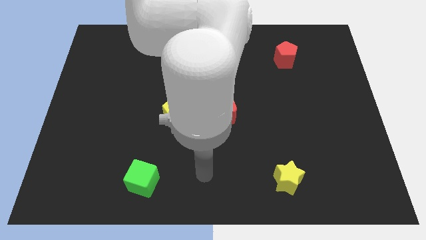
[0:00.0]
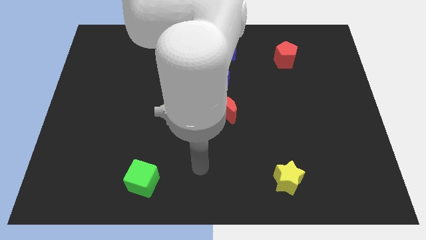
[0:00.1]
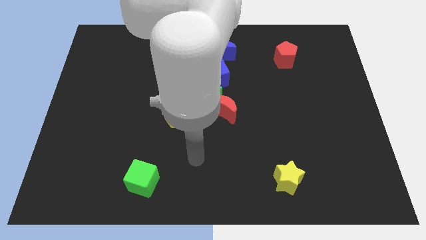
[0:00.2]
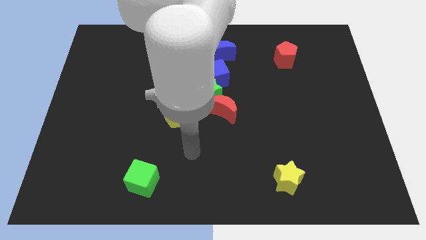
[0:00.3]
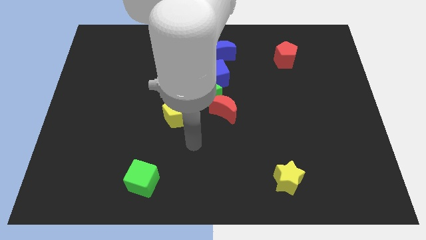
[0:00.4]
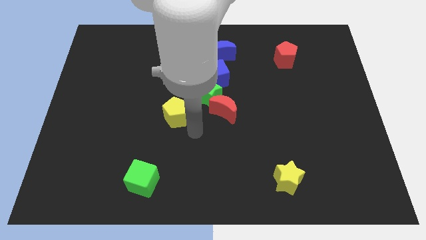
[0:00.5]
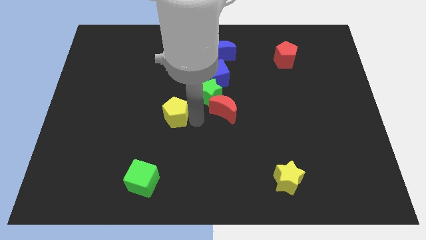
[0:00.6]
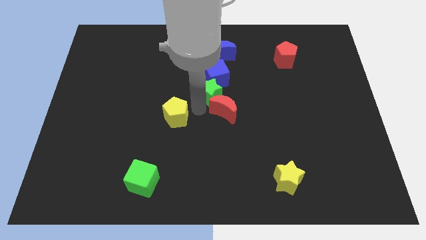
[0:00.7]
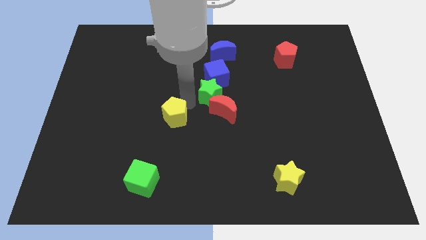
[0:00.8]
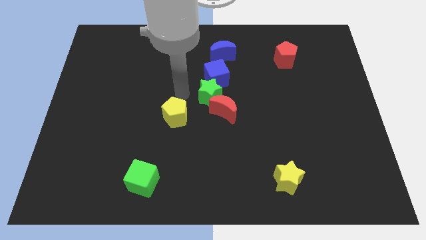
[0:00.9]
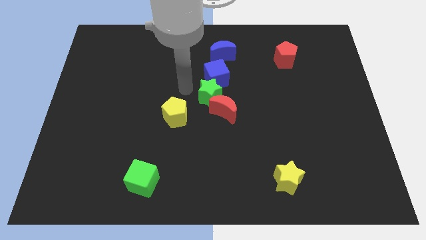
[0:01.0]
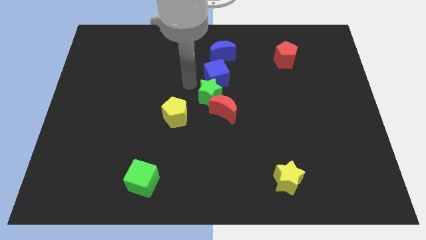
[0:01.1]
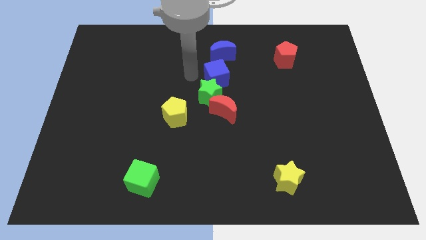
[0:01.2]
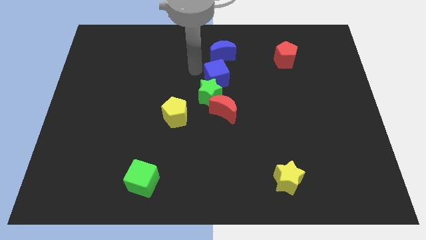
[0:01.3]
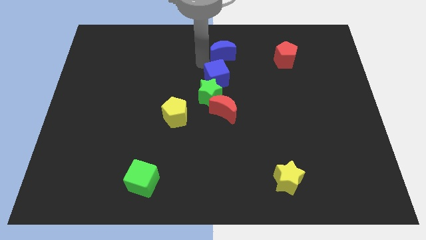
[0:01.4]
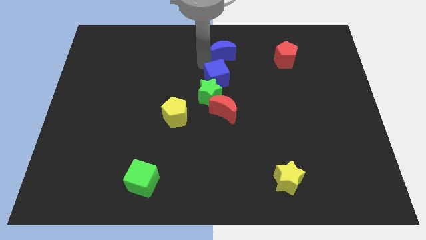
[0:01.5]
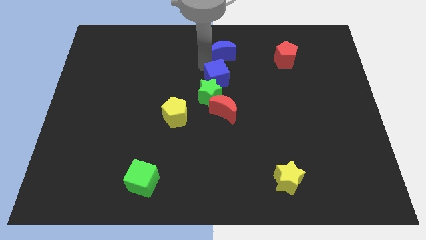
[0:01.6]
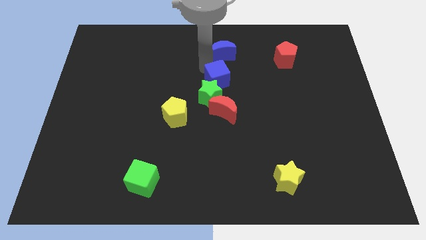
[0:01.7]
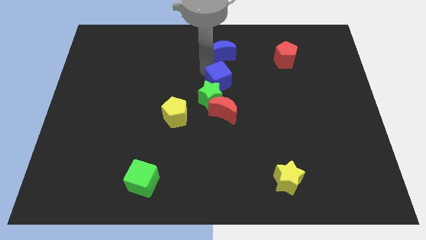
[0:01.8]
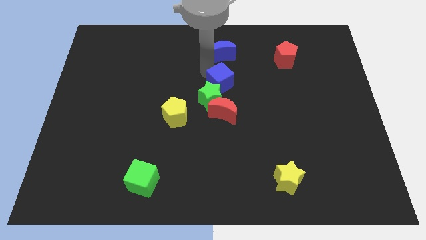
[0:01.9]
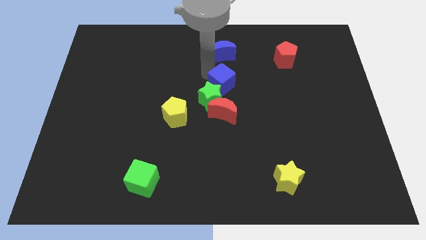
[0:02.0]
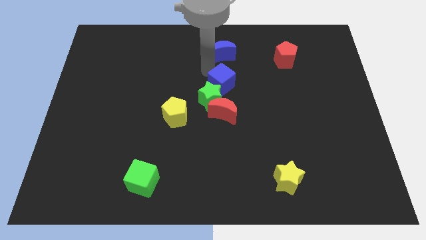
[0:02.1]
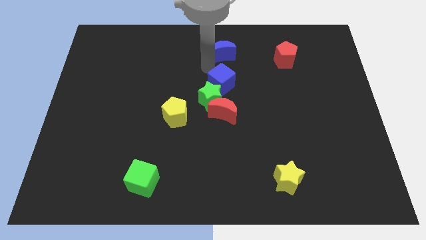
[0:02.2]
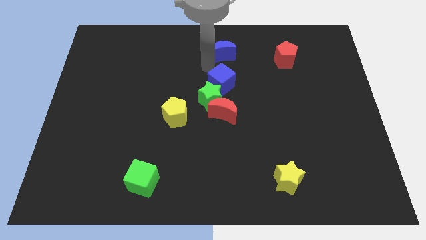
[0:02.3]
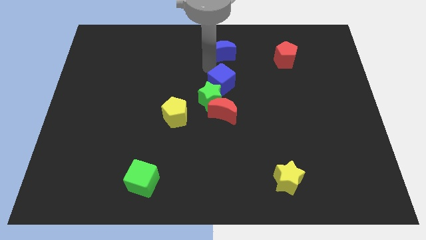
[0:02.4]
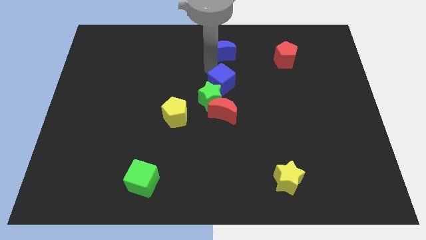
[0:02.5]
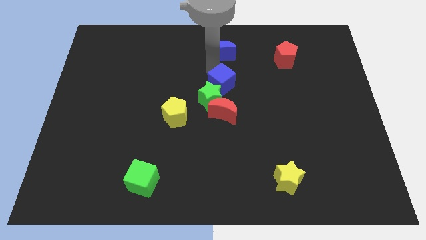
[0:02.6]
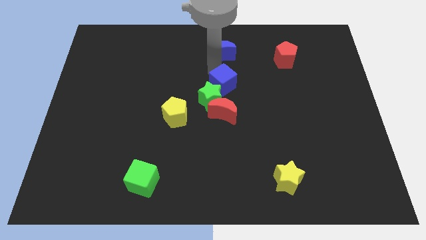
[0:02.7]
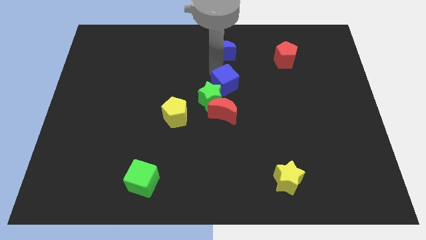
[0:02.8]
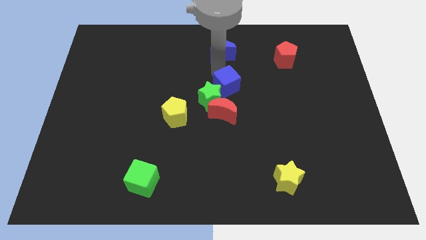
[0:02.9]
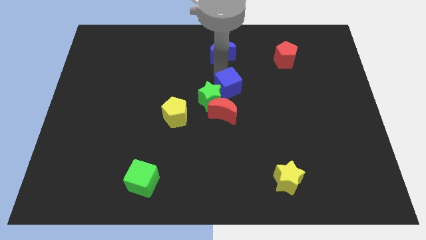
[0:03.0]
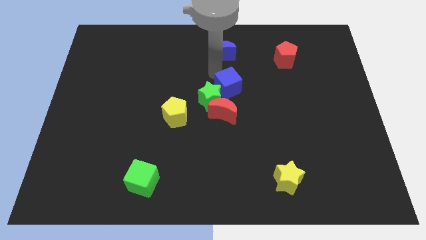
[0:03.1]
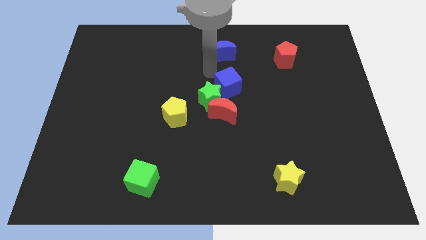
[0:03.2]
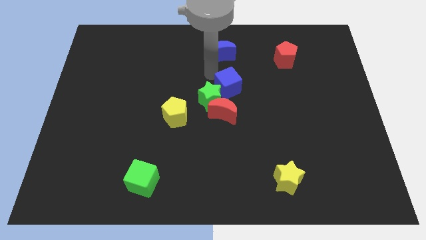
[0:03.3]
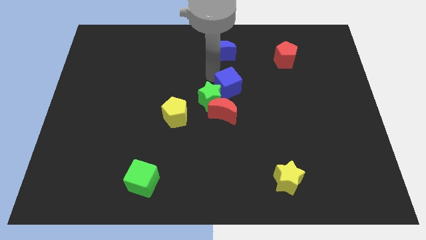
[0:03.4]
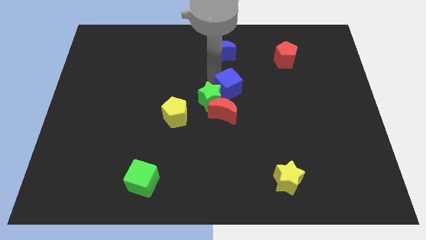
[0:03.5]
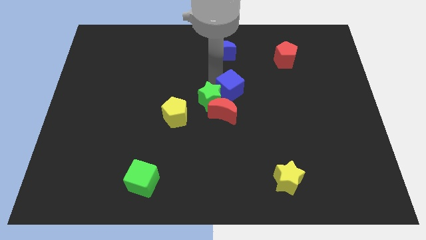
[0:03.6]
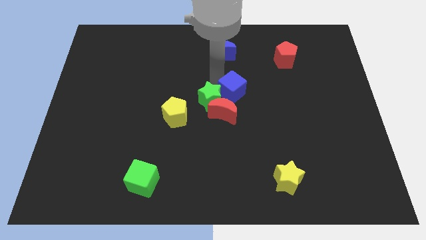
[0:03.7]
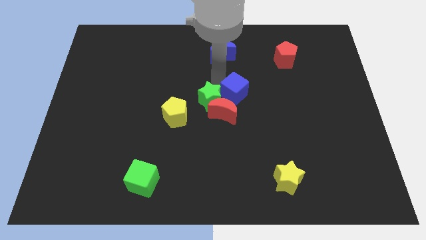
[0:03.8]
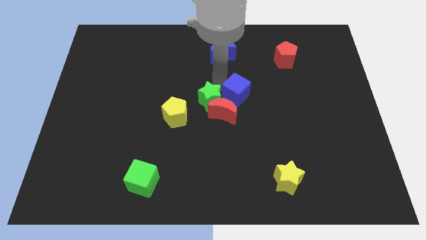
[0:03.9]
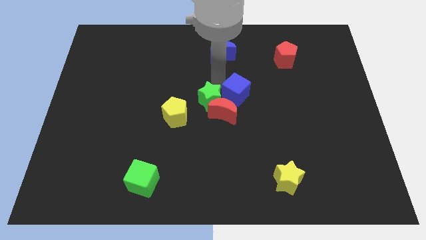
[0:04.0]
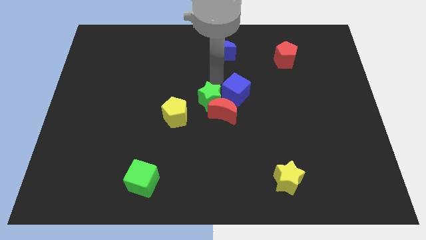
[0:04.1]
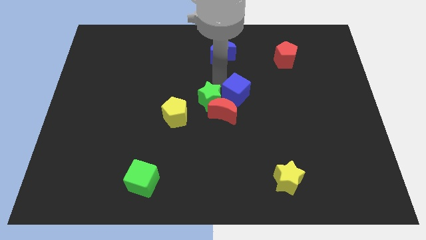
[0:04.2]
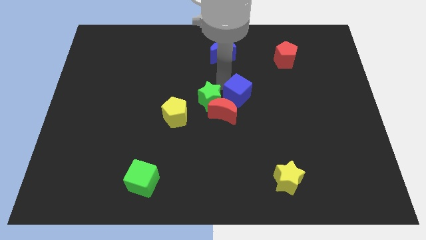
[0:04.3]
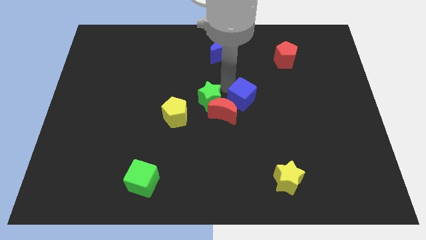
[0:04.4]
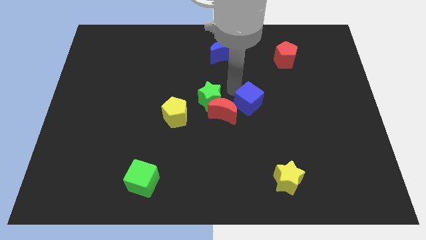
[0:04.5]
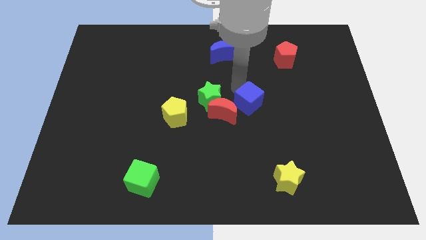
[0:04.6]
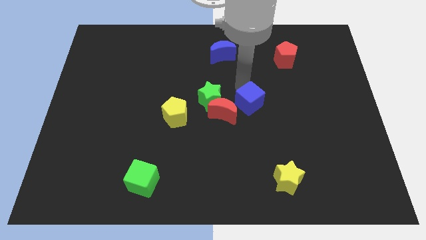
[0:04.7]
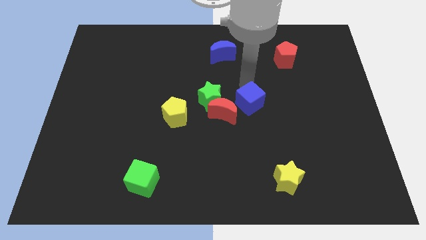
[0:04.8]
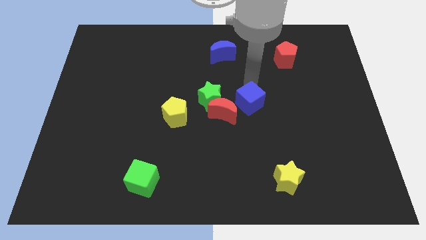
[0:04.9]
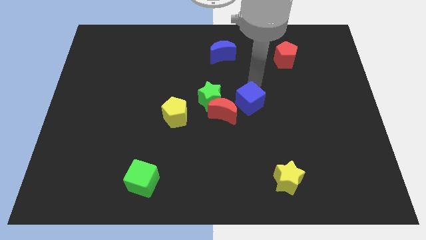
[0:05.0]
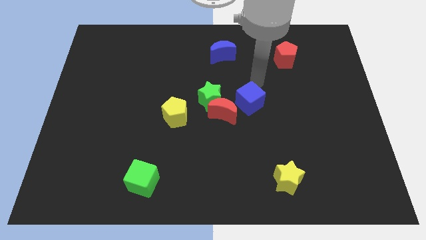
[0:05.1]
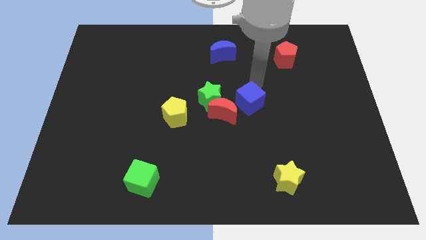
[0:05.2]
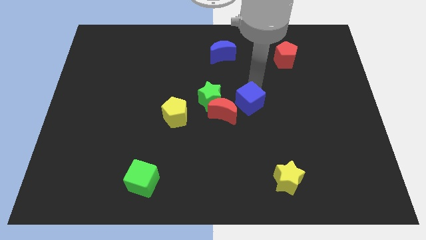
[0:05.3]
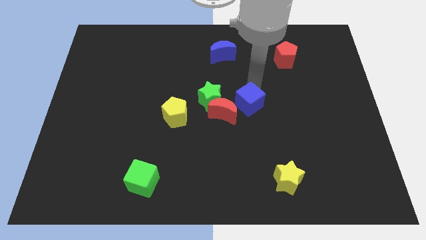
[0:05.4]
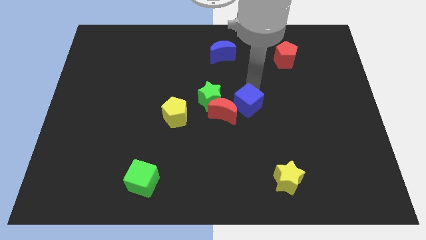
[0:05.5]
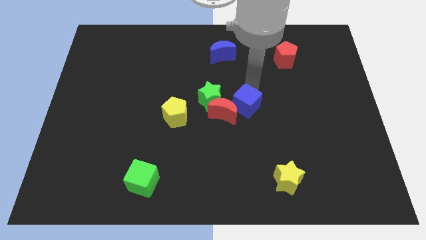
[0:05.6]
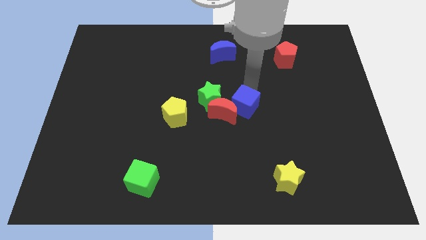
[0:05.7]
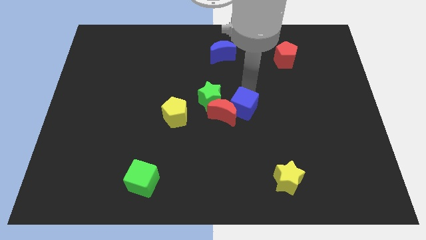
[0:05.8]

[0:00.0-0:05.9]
put the blue cube just right of the yellow pentagon
